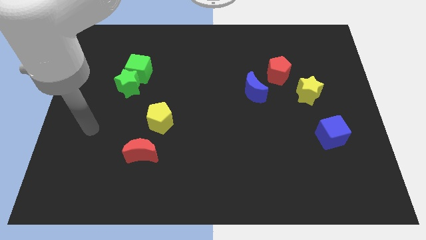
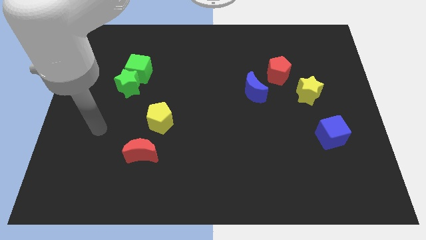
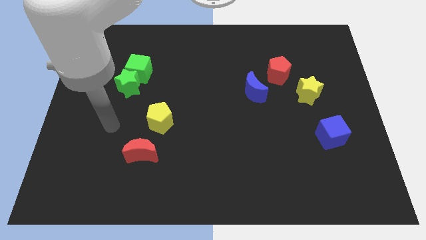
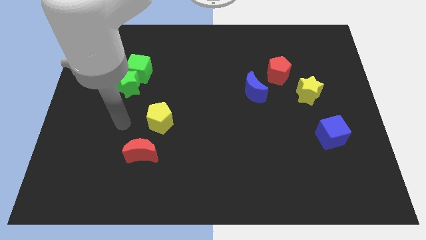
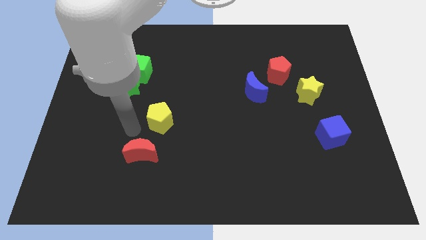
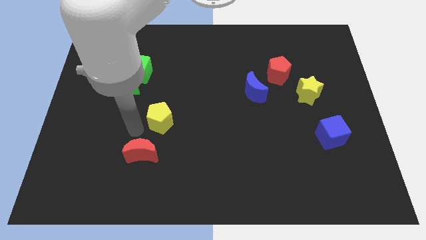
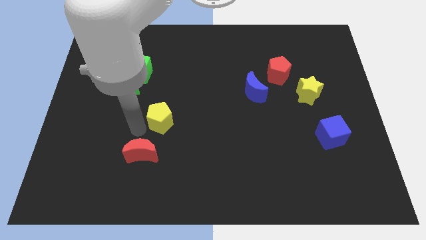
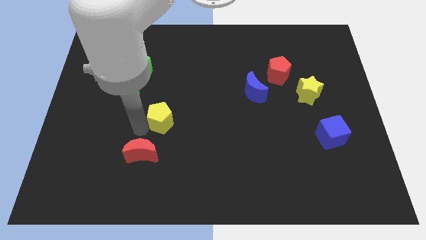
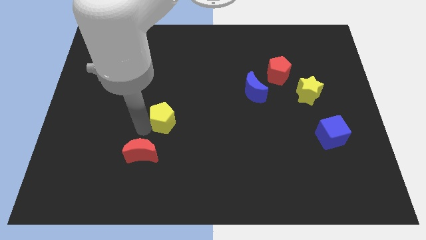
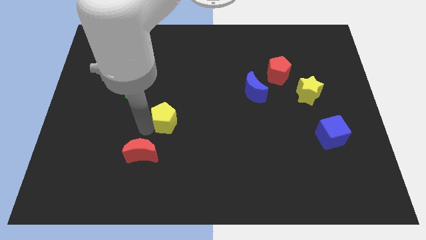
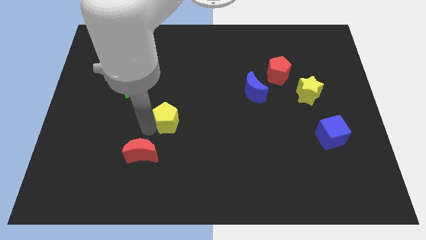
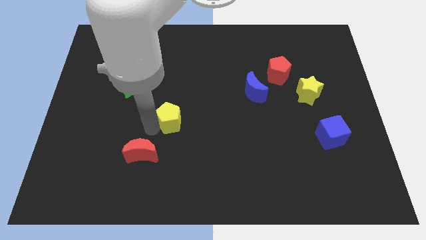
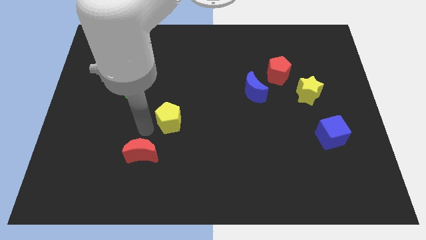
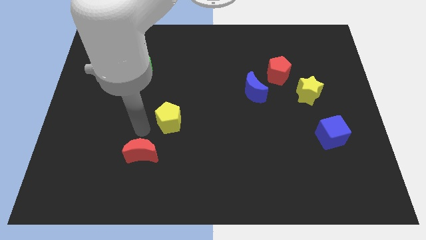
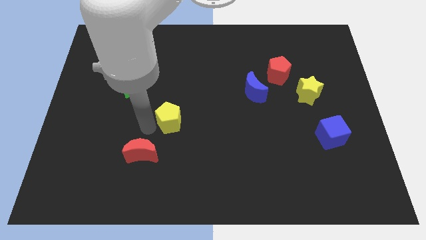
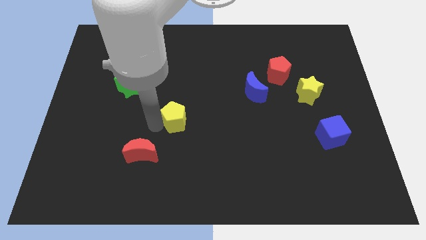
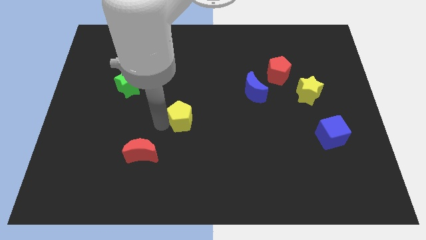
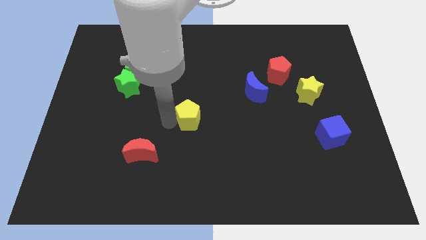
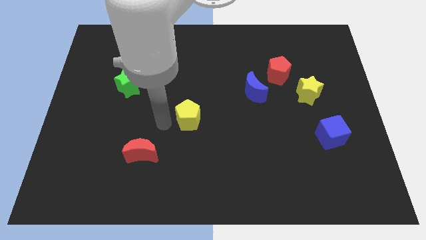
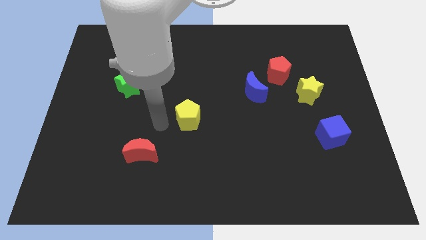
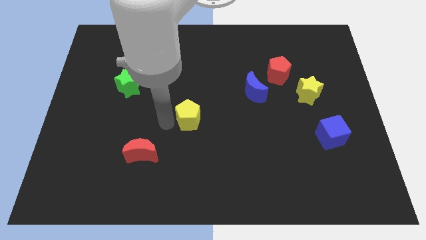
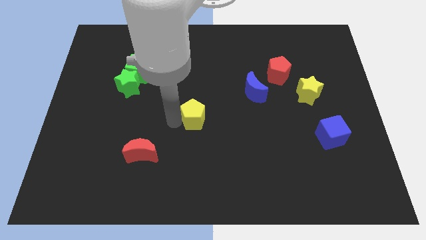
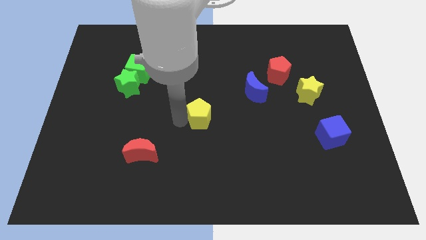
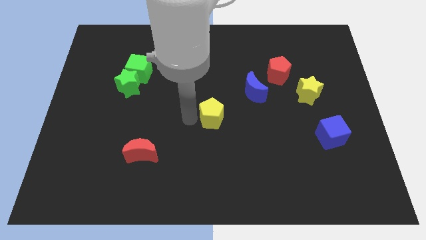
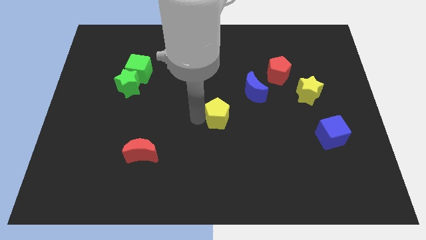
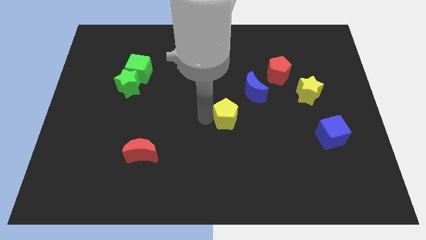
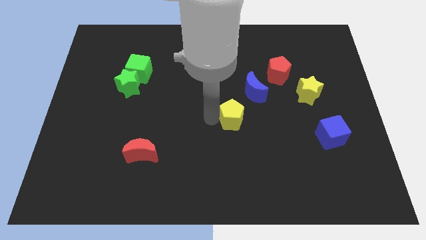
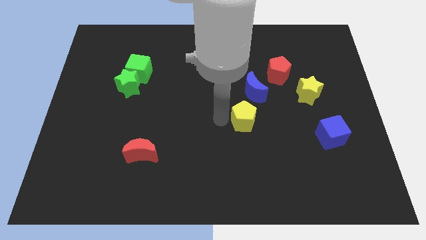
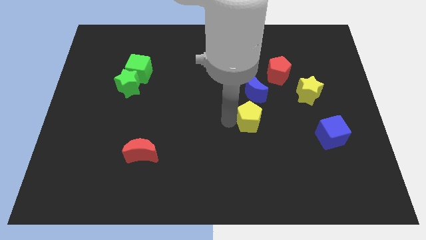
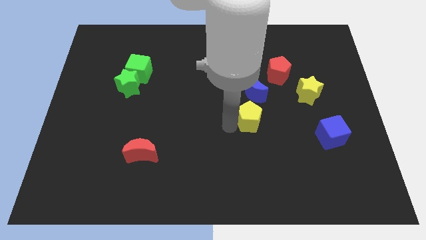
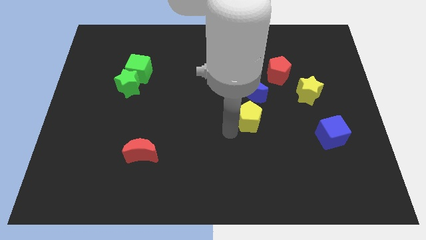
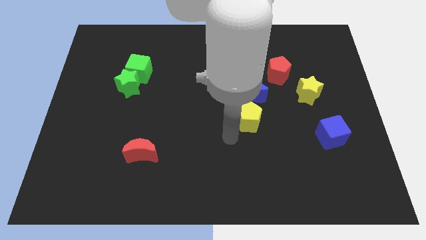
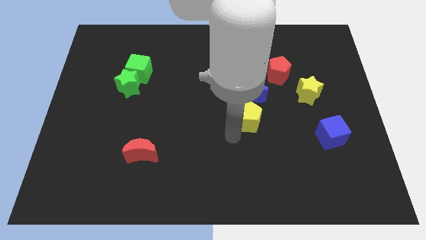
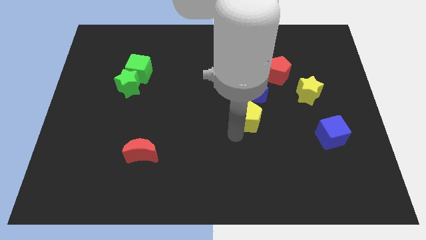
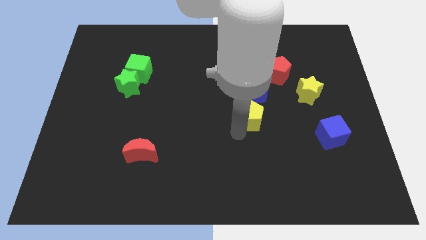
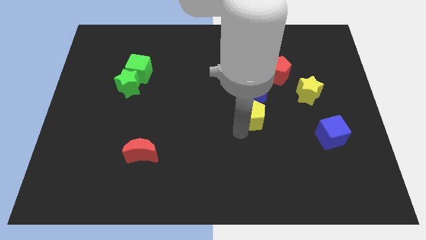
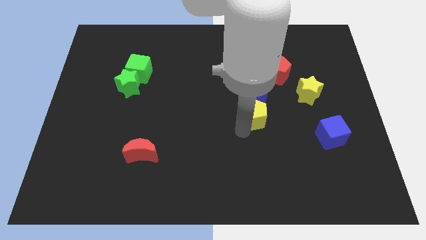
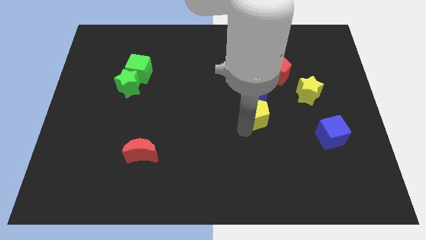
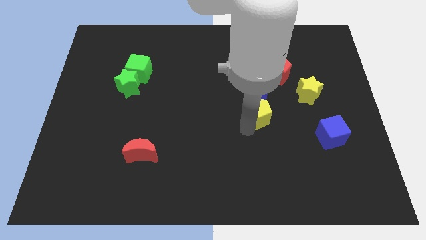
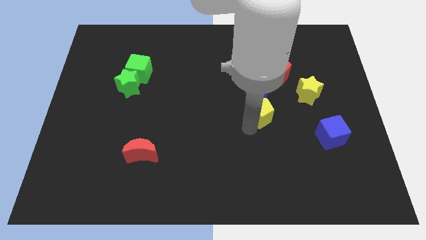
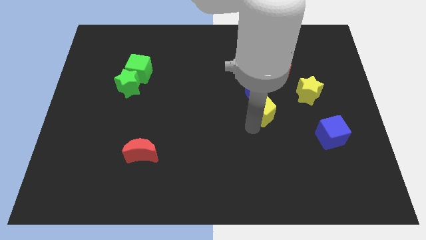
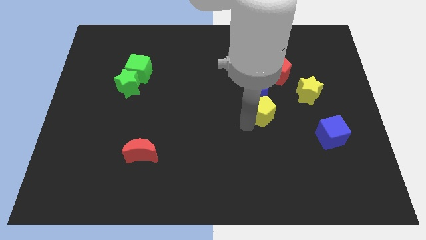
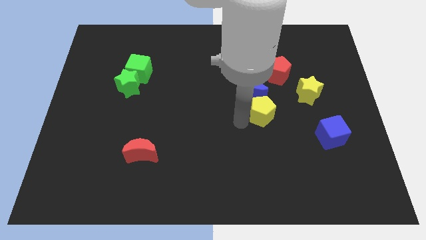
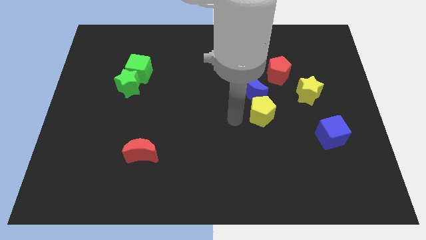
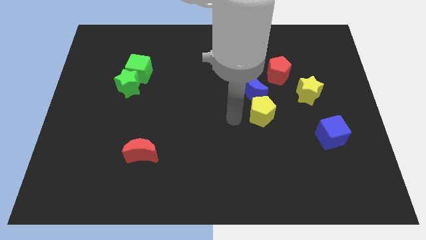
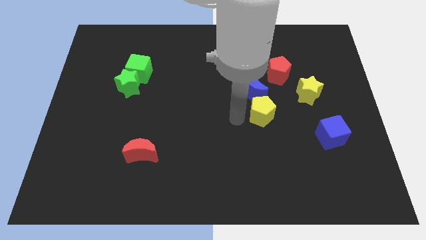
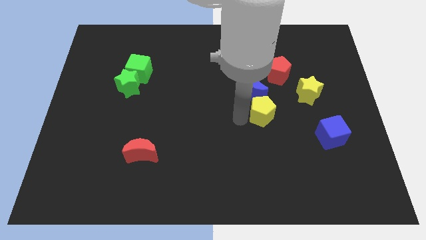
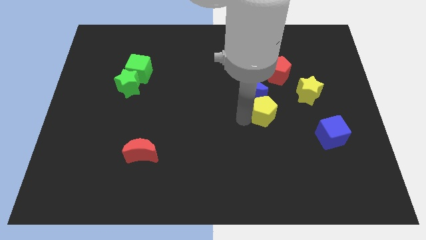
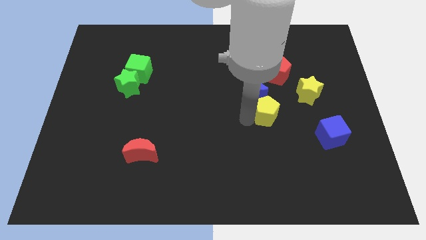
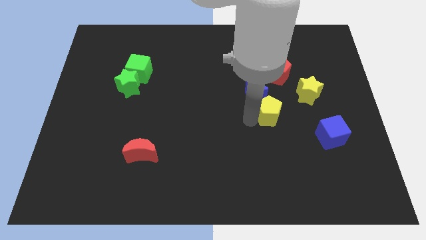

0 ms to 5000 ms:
slide the yellow pentagon to the bottom left side of the yellow star

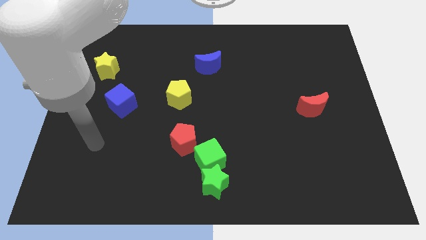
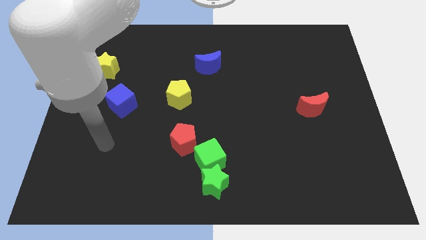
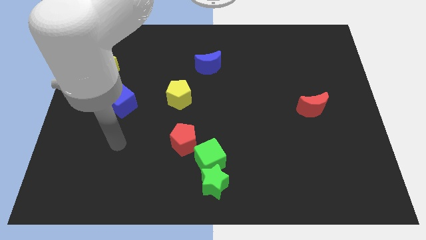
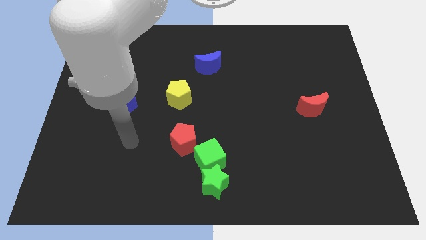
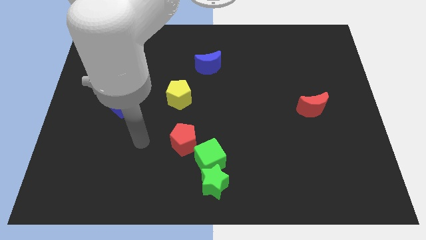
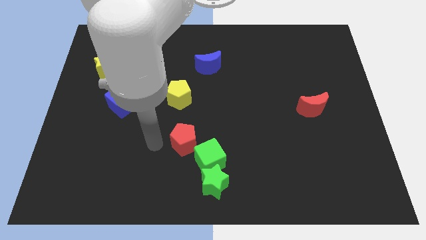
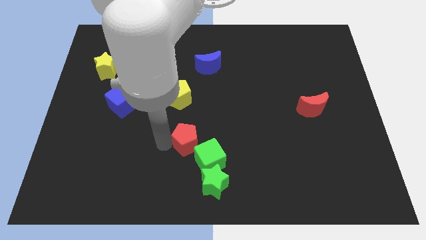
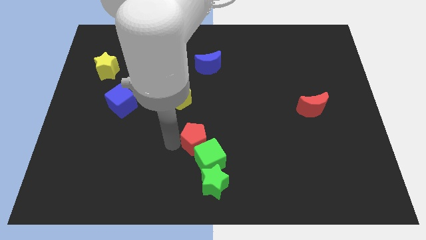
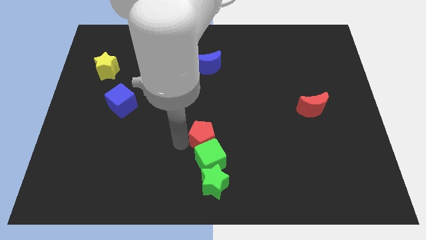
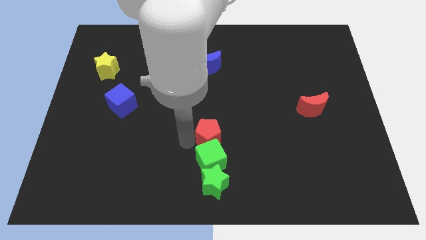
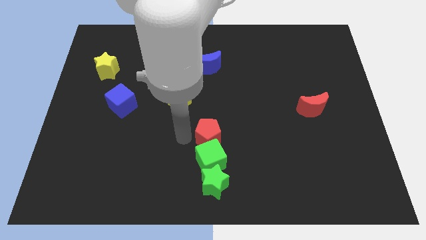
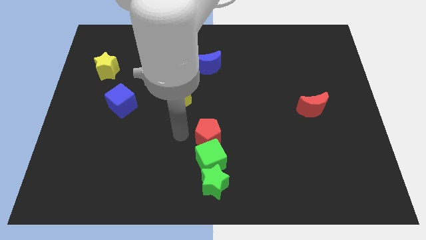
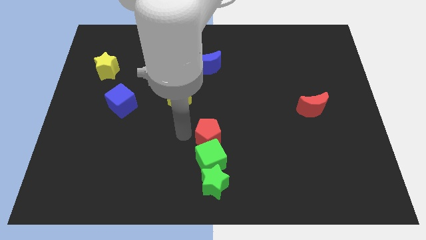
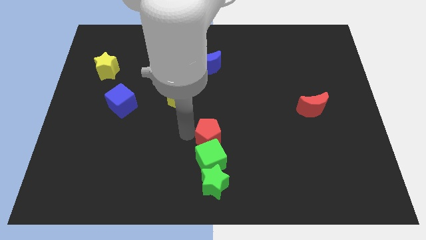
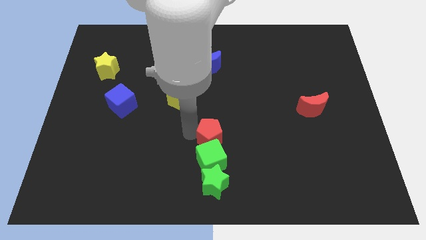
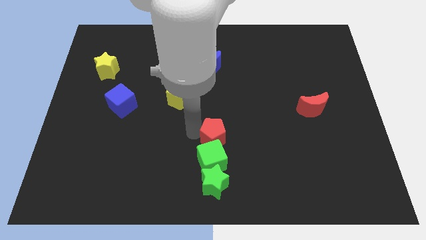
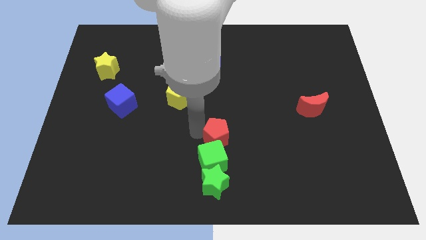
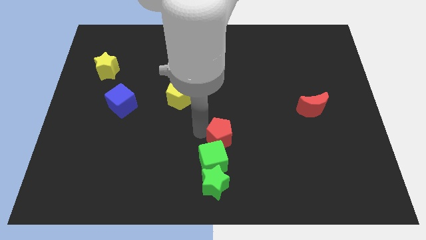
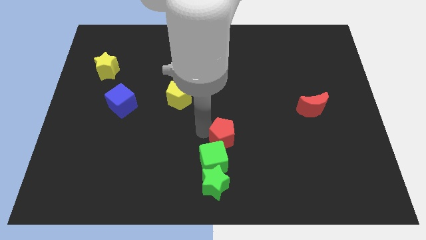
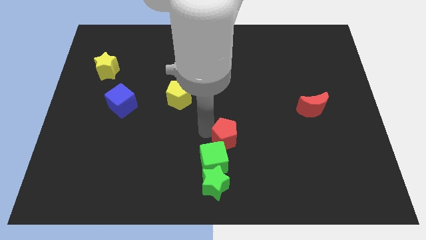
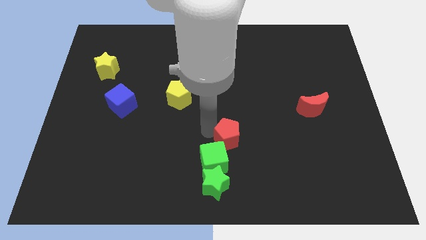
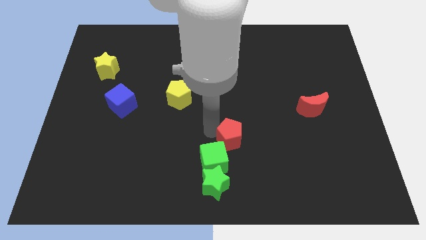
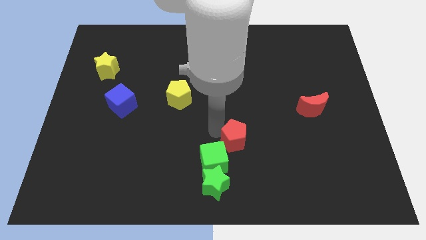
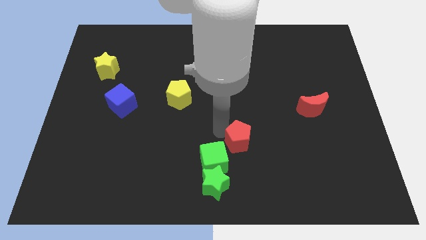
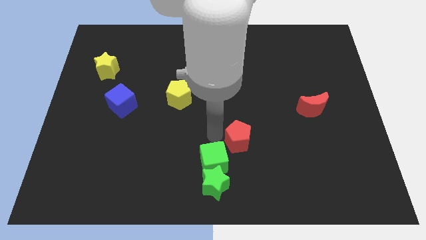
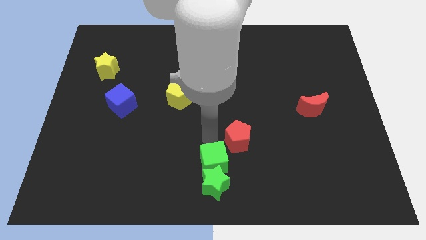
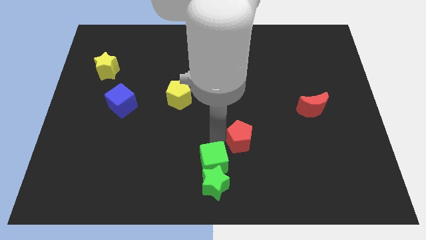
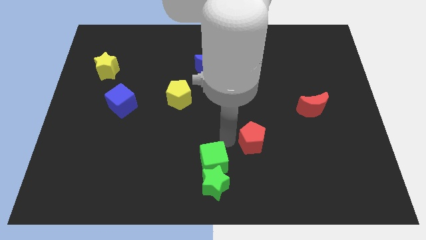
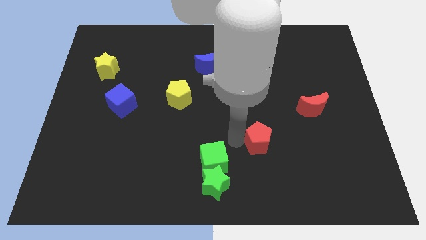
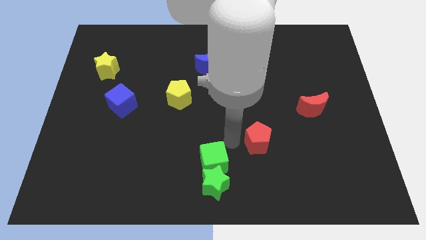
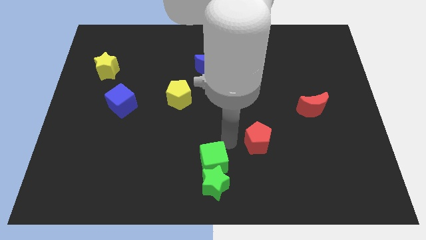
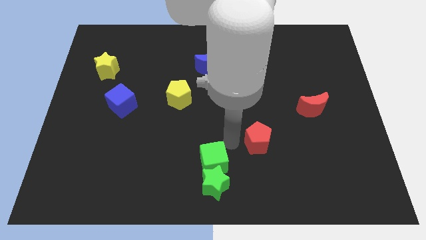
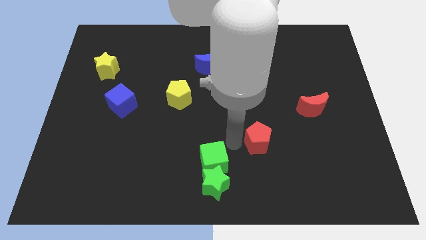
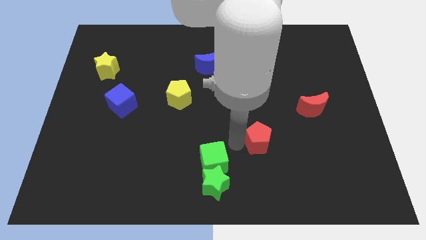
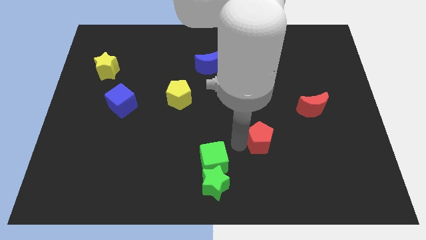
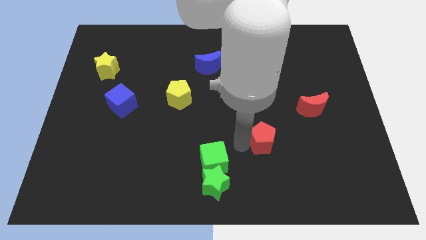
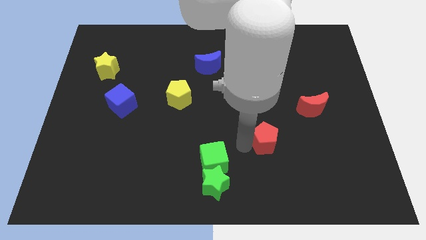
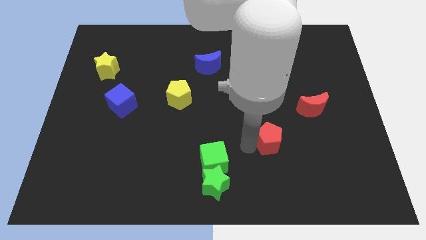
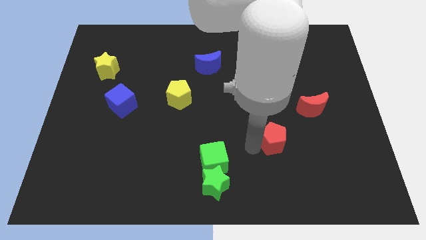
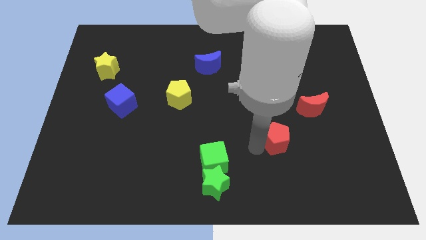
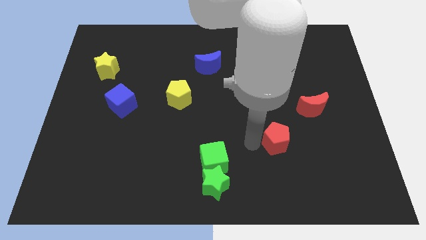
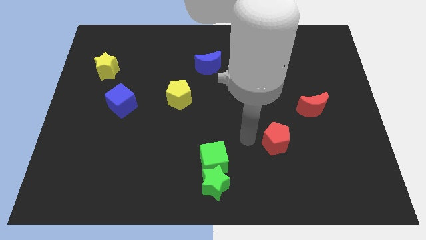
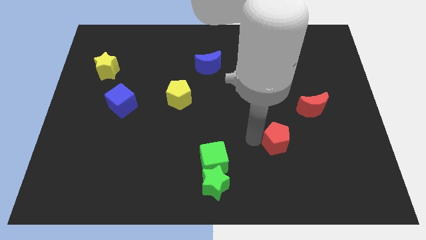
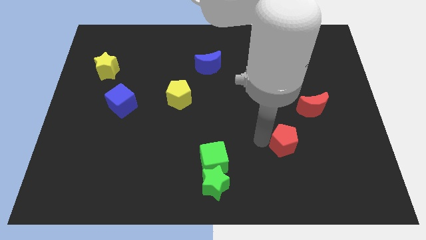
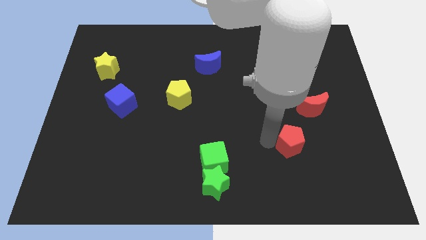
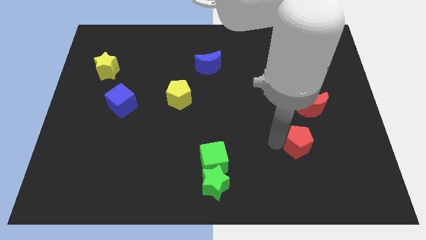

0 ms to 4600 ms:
slide the red pentagon to the bottom side of the red moon
